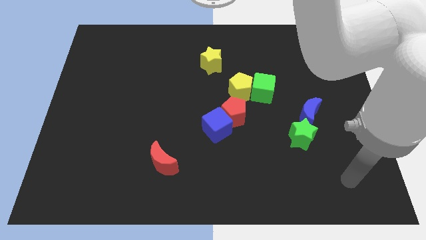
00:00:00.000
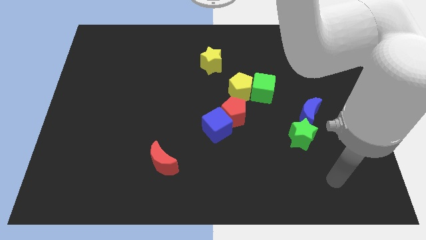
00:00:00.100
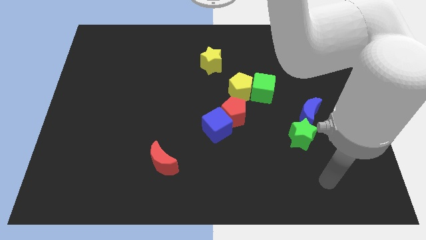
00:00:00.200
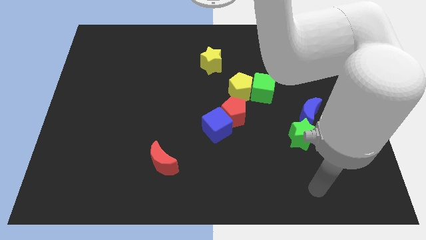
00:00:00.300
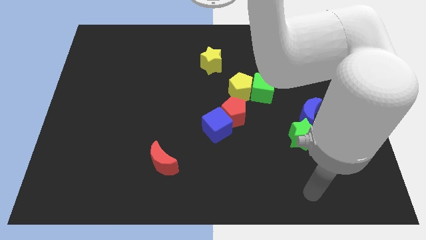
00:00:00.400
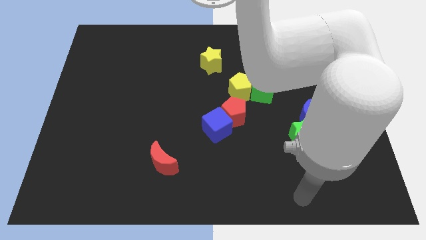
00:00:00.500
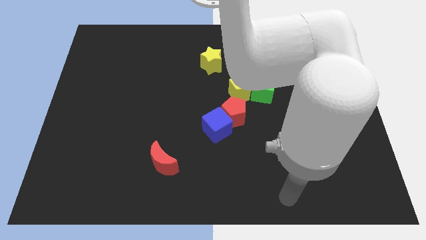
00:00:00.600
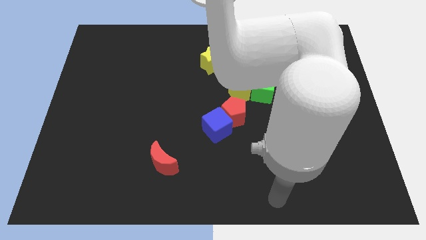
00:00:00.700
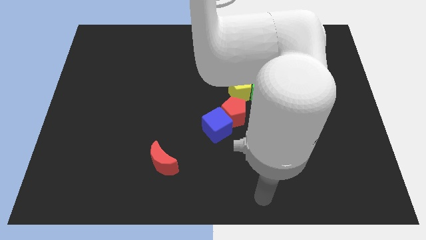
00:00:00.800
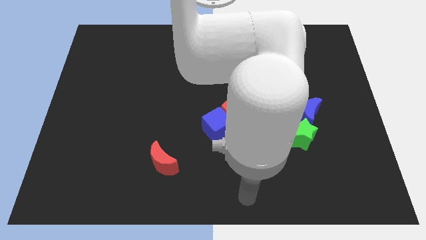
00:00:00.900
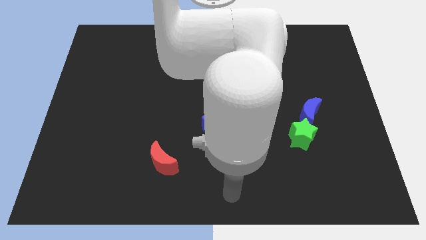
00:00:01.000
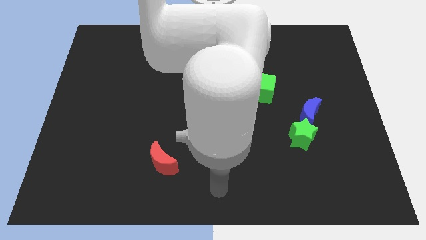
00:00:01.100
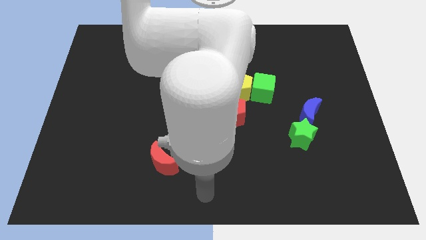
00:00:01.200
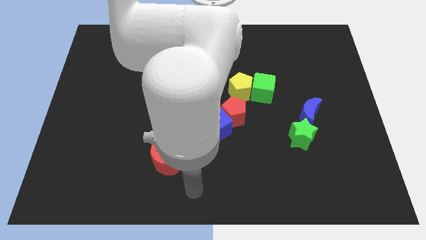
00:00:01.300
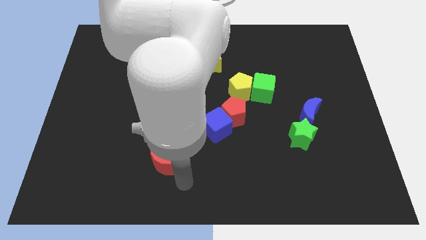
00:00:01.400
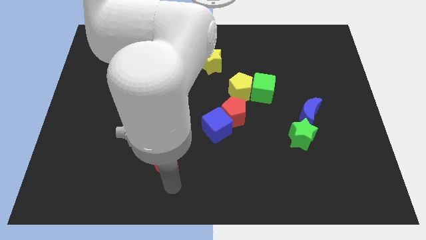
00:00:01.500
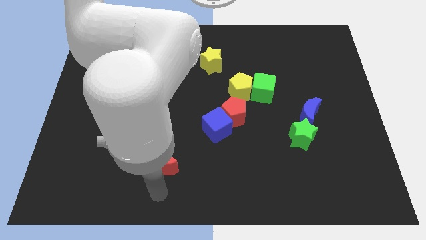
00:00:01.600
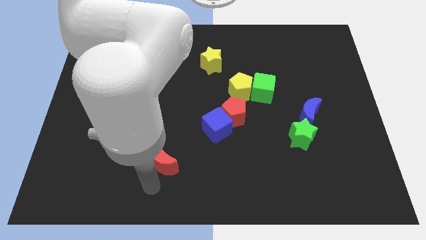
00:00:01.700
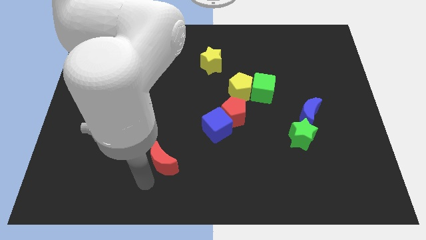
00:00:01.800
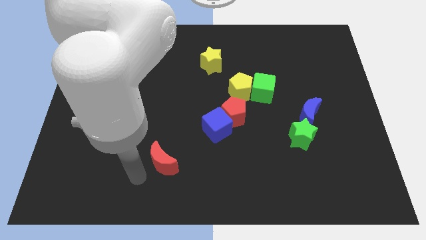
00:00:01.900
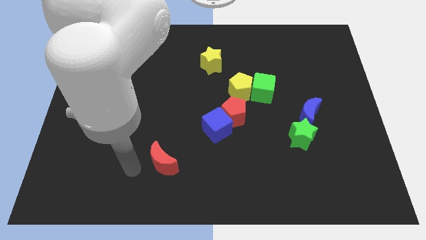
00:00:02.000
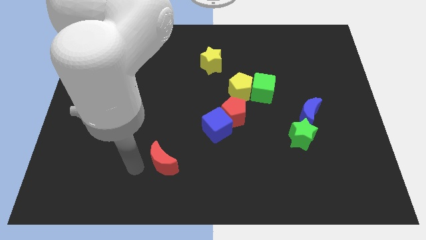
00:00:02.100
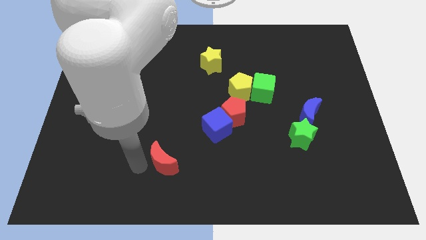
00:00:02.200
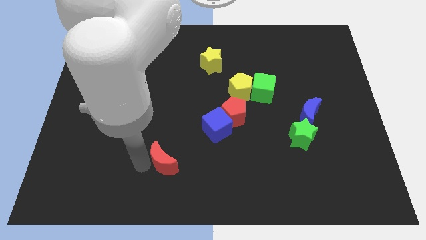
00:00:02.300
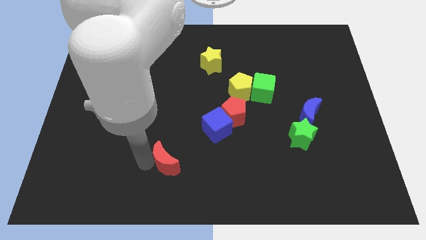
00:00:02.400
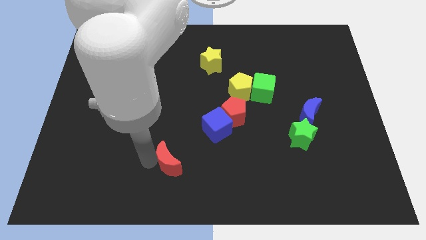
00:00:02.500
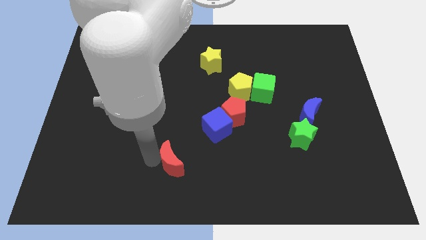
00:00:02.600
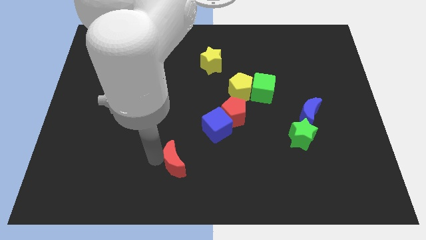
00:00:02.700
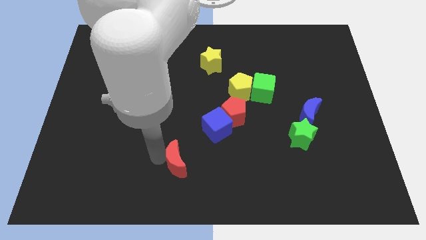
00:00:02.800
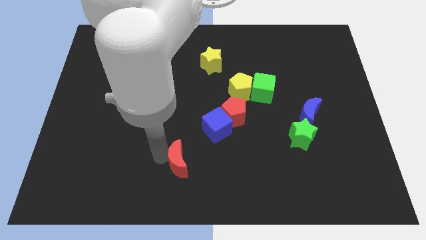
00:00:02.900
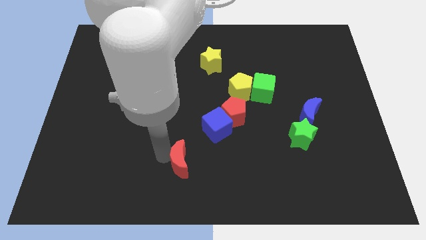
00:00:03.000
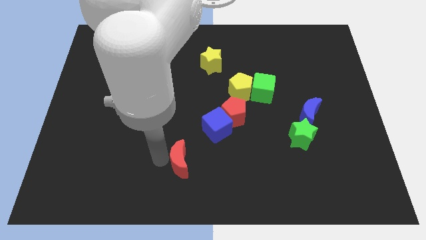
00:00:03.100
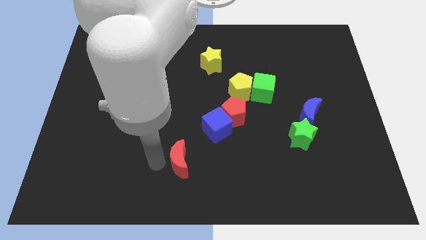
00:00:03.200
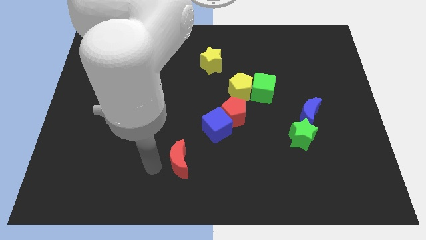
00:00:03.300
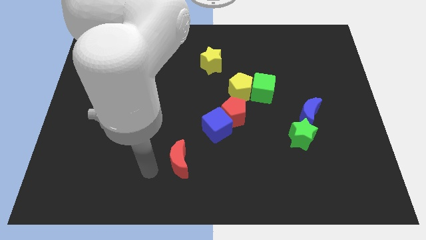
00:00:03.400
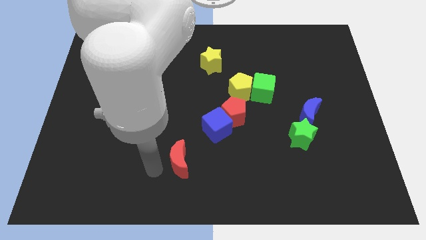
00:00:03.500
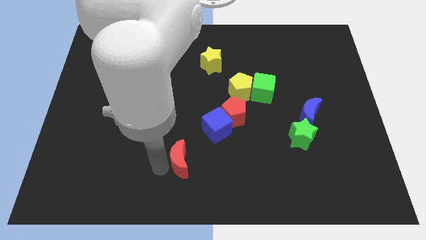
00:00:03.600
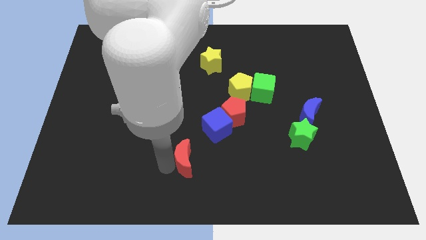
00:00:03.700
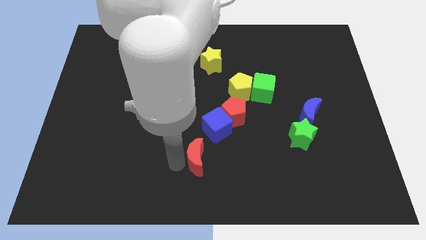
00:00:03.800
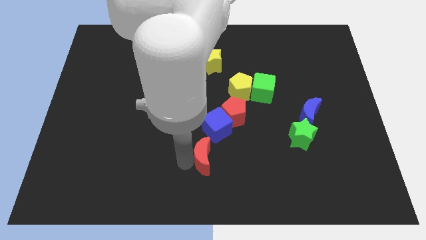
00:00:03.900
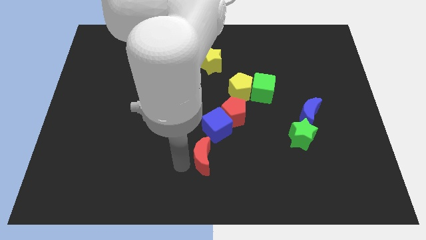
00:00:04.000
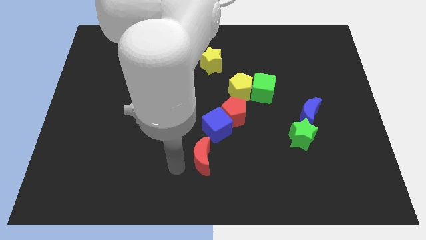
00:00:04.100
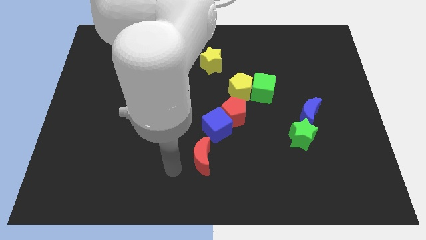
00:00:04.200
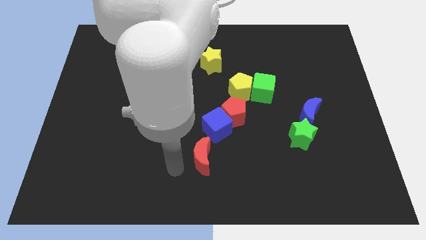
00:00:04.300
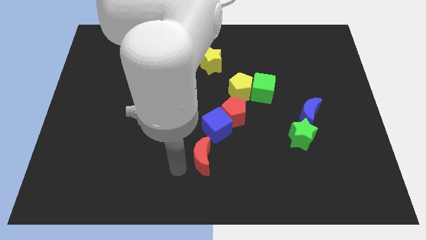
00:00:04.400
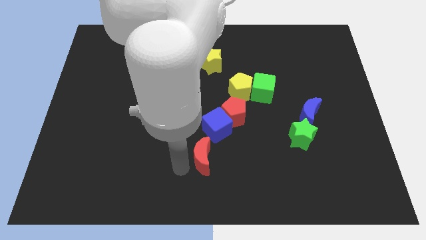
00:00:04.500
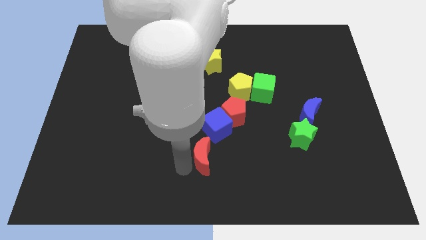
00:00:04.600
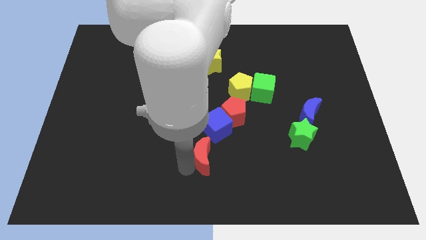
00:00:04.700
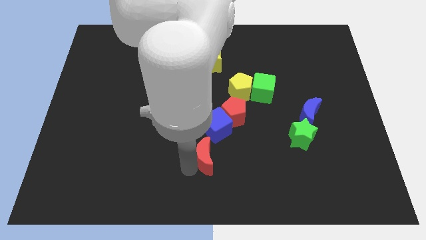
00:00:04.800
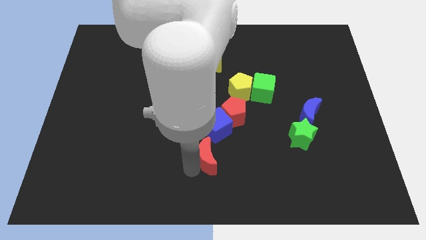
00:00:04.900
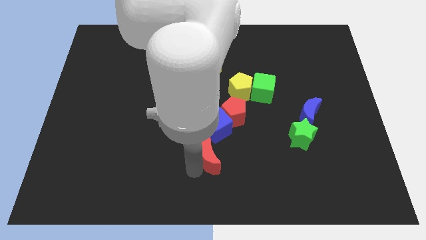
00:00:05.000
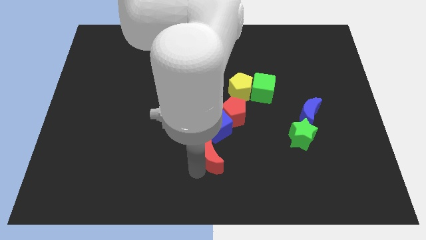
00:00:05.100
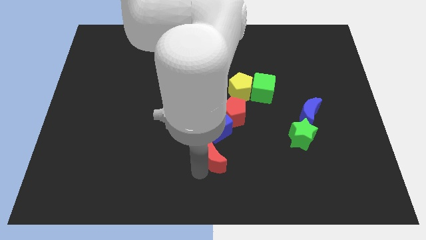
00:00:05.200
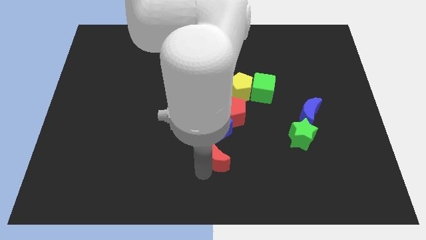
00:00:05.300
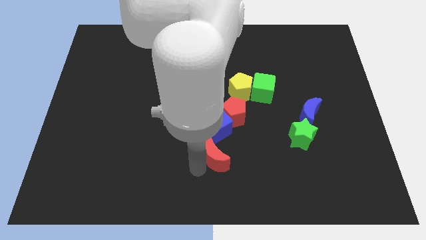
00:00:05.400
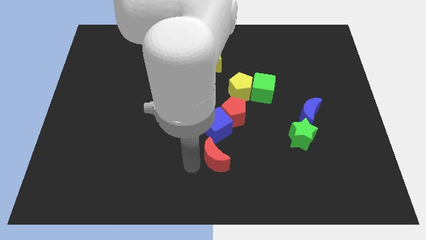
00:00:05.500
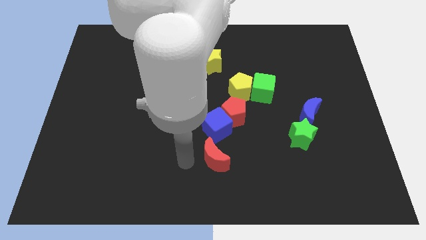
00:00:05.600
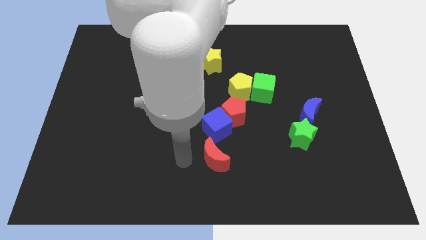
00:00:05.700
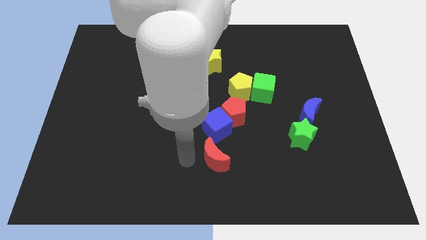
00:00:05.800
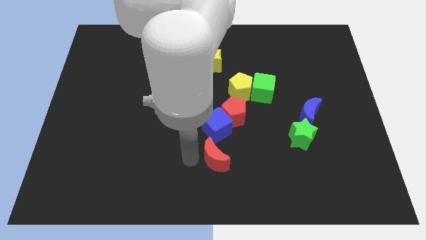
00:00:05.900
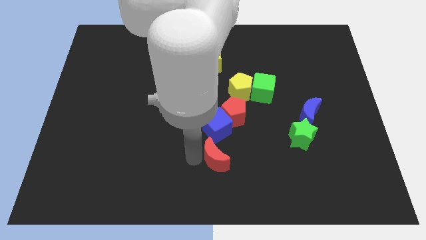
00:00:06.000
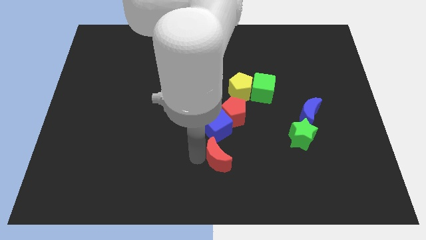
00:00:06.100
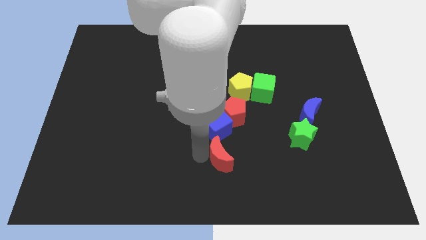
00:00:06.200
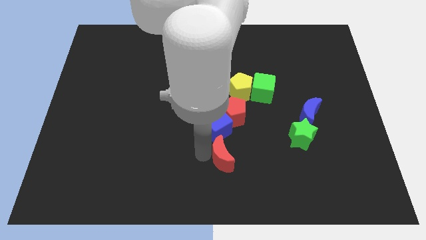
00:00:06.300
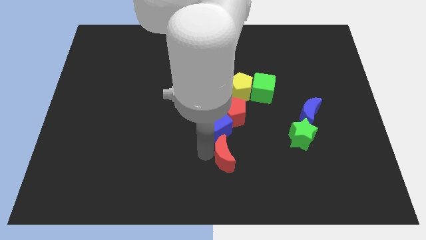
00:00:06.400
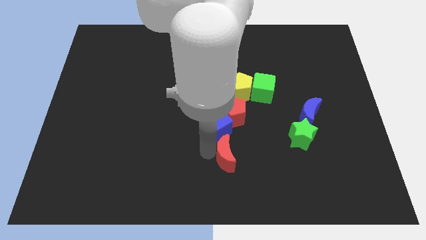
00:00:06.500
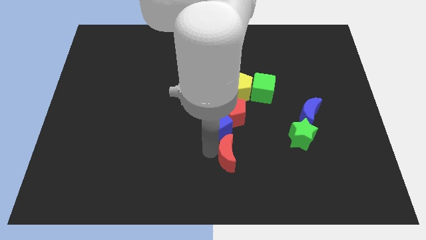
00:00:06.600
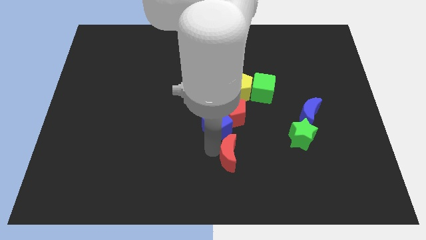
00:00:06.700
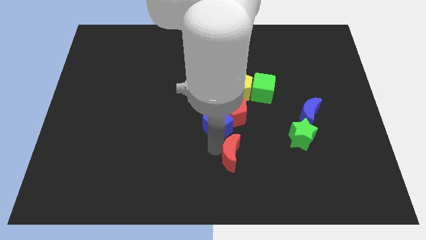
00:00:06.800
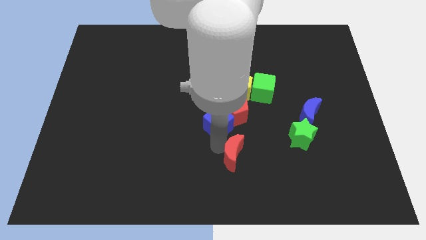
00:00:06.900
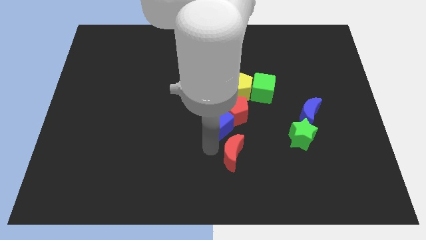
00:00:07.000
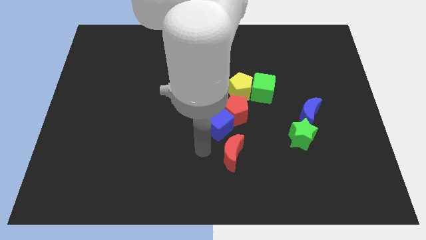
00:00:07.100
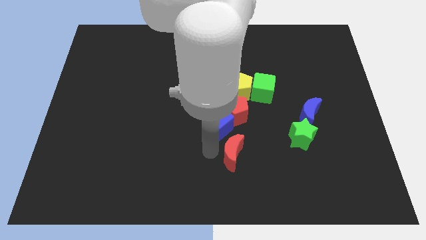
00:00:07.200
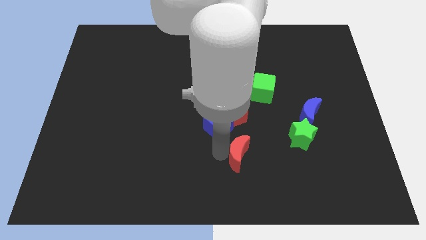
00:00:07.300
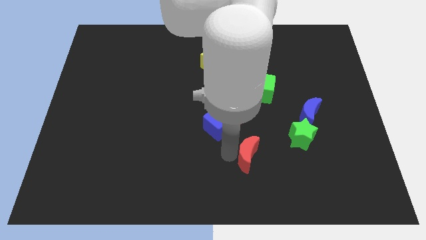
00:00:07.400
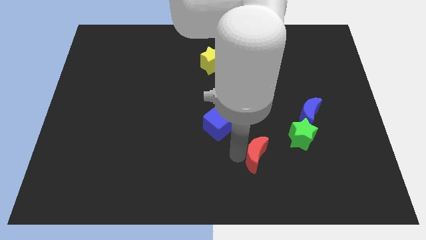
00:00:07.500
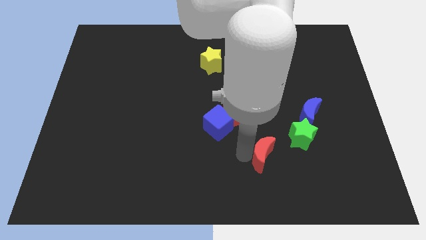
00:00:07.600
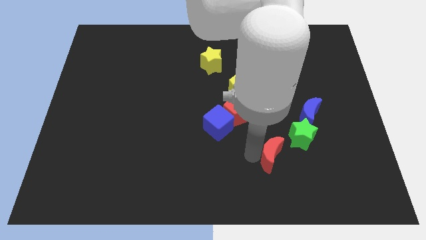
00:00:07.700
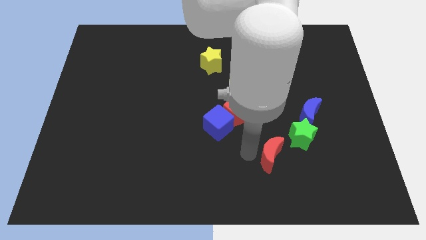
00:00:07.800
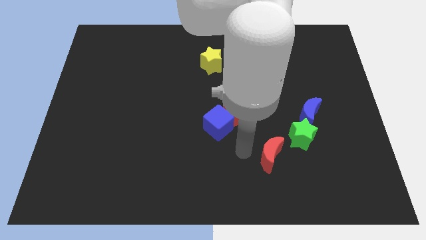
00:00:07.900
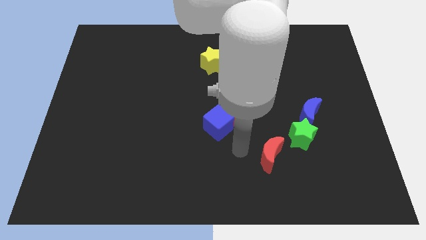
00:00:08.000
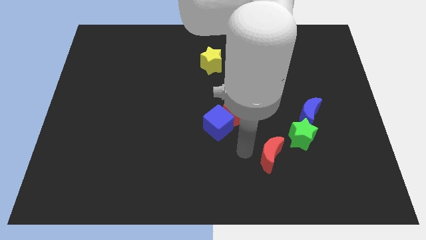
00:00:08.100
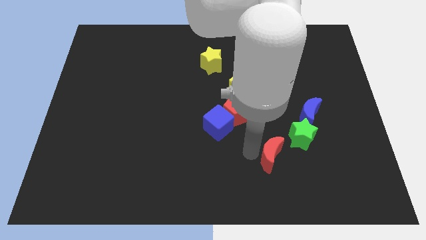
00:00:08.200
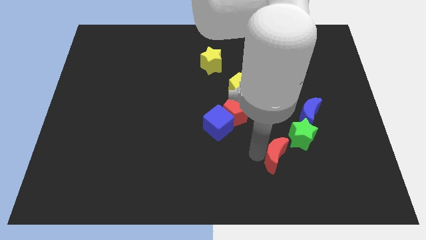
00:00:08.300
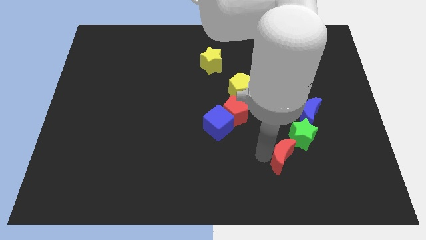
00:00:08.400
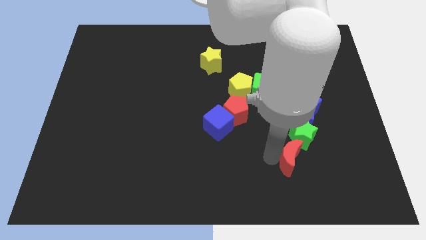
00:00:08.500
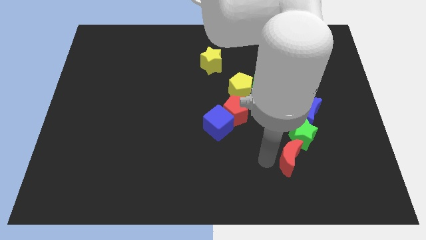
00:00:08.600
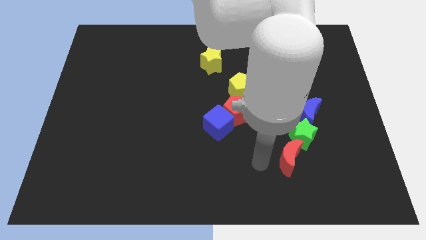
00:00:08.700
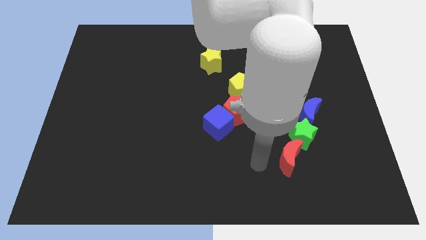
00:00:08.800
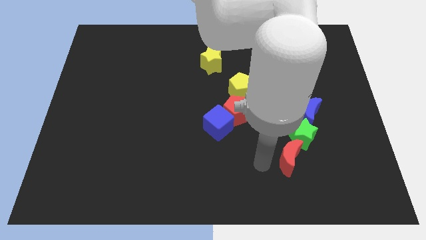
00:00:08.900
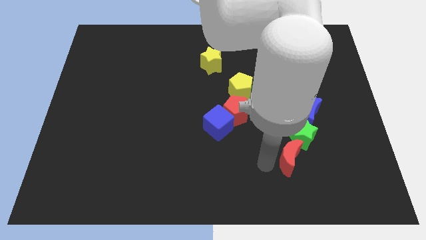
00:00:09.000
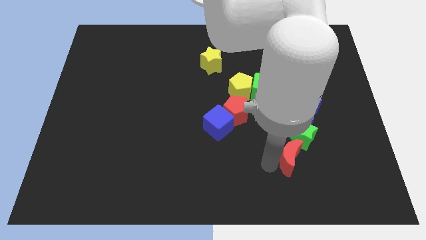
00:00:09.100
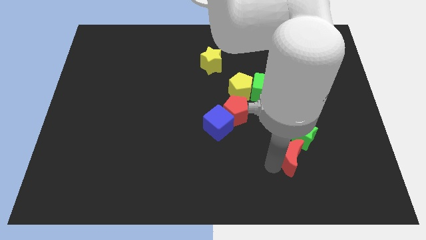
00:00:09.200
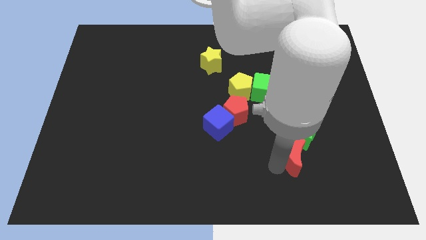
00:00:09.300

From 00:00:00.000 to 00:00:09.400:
move the red moon to the bottom of the blue moon
